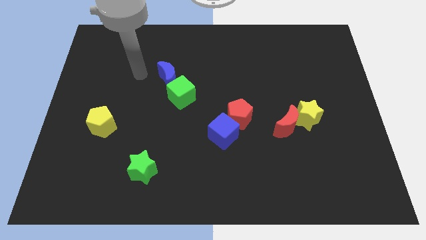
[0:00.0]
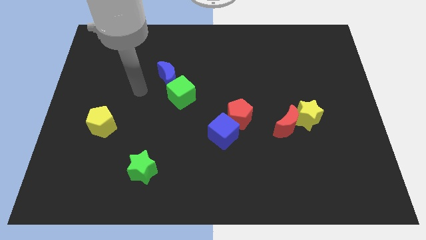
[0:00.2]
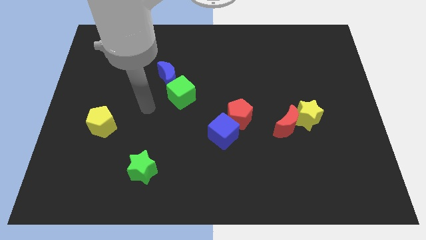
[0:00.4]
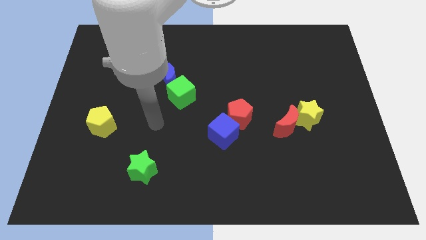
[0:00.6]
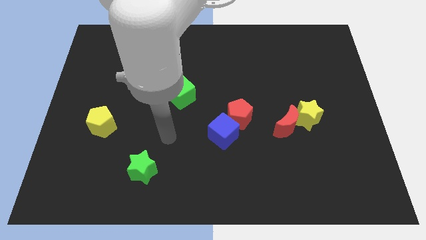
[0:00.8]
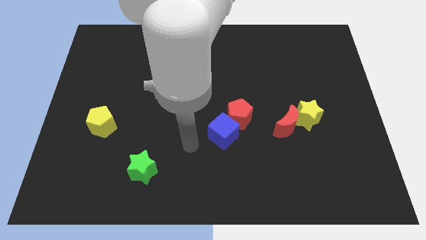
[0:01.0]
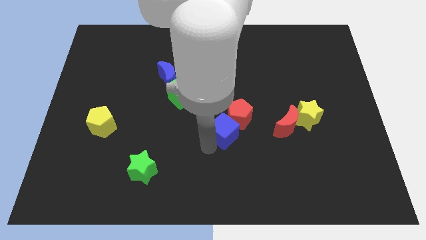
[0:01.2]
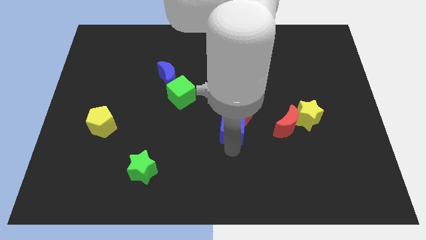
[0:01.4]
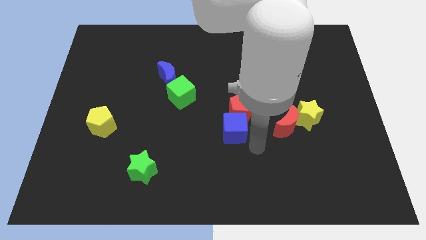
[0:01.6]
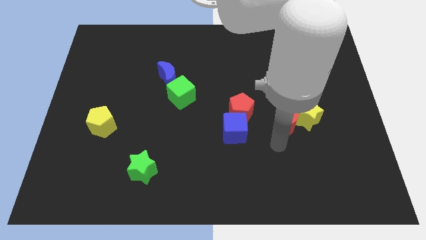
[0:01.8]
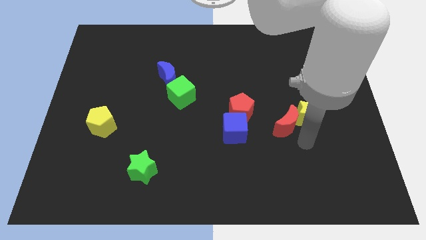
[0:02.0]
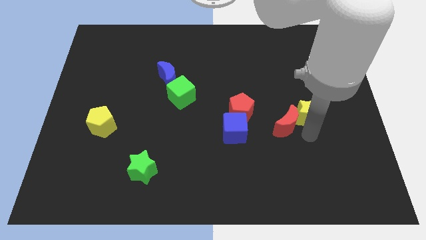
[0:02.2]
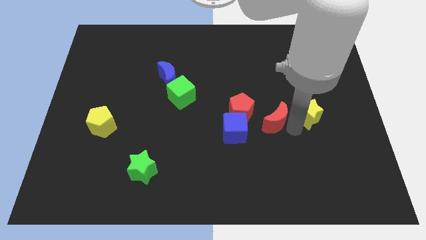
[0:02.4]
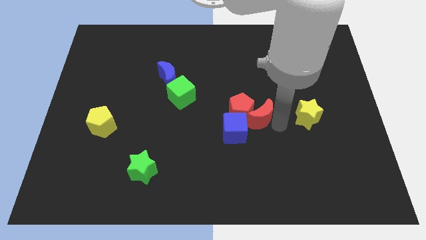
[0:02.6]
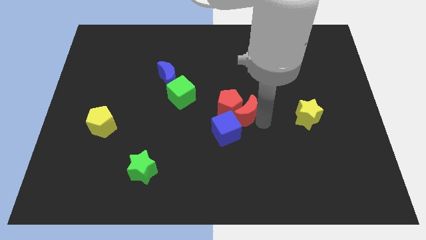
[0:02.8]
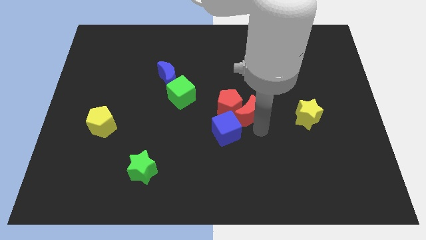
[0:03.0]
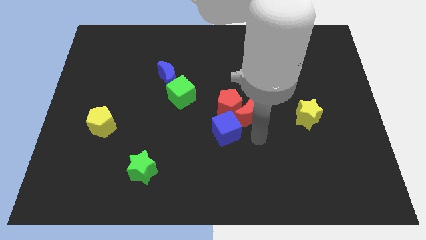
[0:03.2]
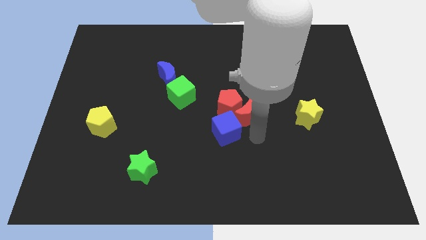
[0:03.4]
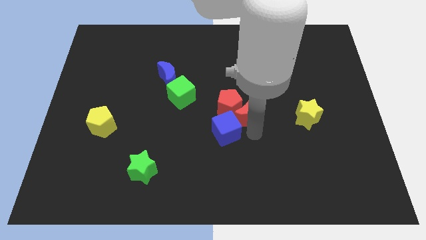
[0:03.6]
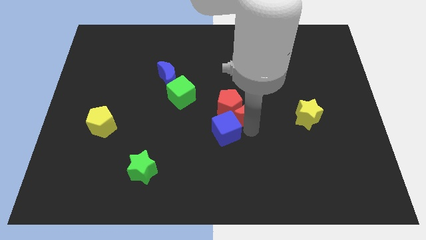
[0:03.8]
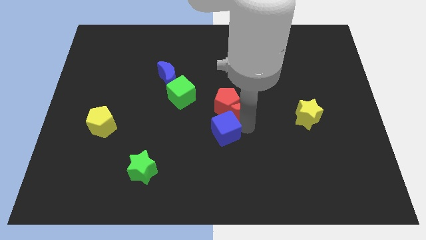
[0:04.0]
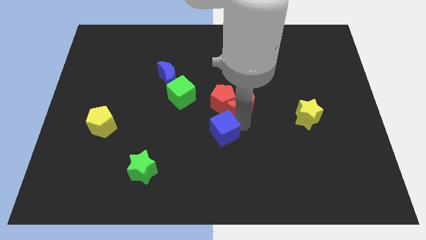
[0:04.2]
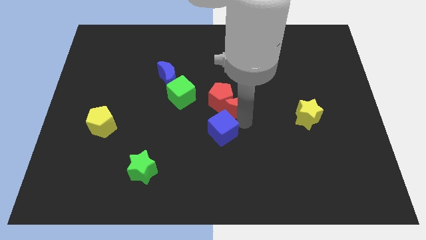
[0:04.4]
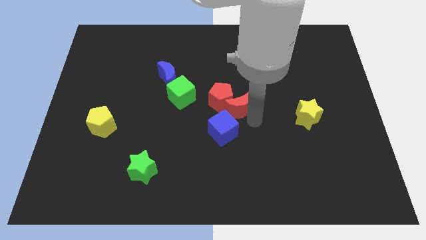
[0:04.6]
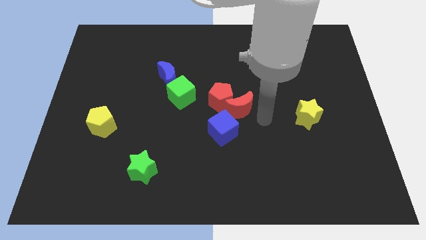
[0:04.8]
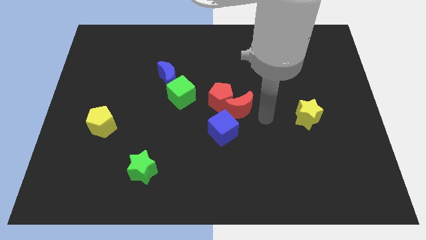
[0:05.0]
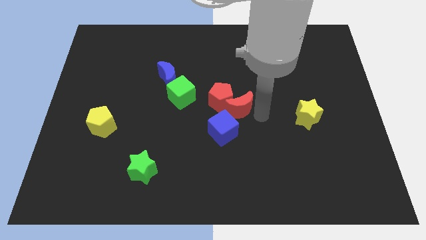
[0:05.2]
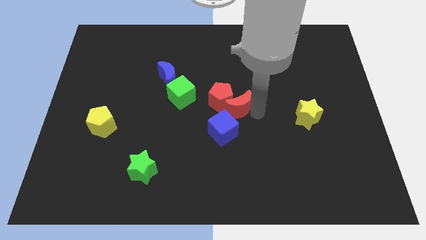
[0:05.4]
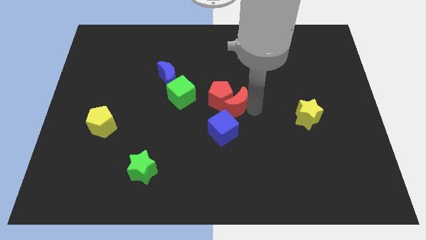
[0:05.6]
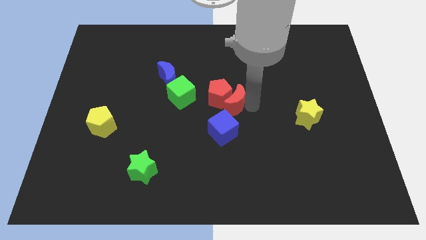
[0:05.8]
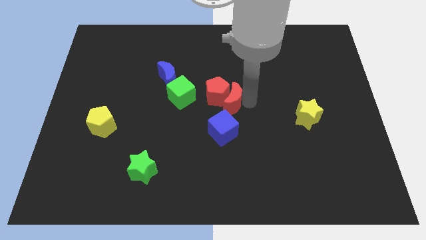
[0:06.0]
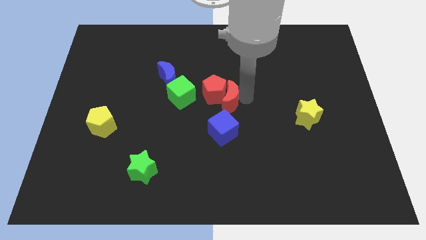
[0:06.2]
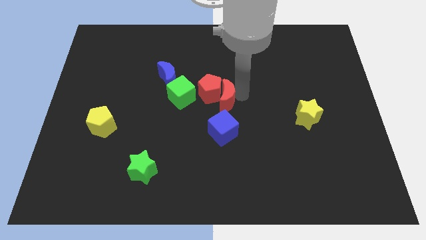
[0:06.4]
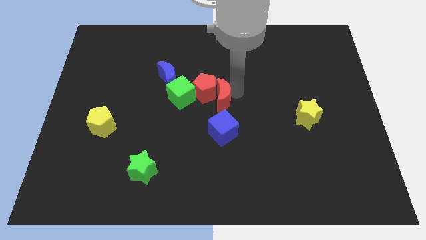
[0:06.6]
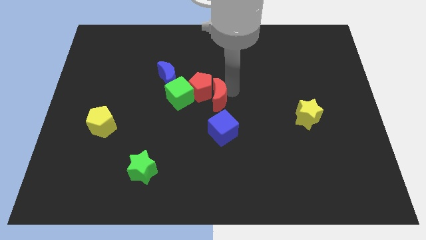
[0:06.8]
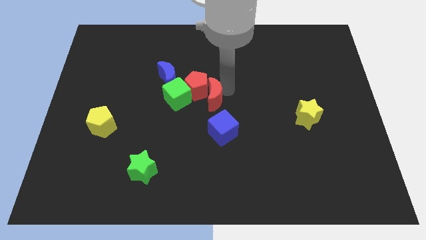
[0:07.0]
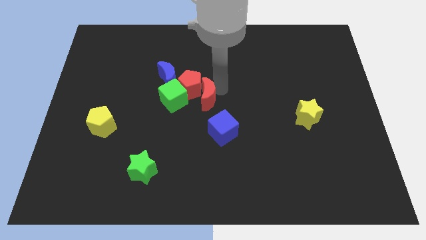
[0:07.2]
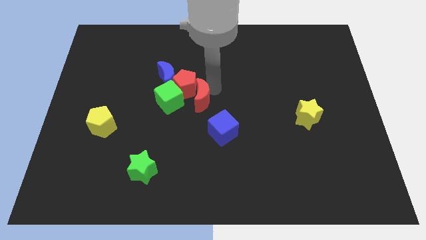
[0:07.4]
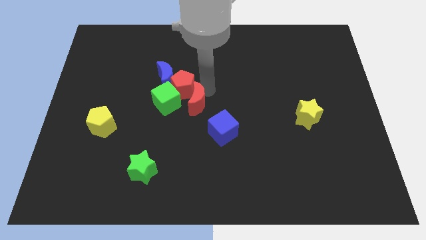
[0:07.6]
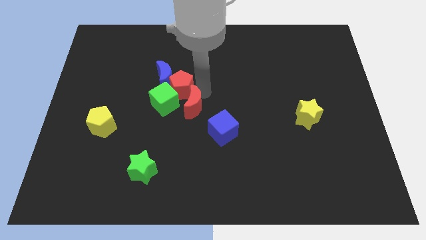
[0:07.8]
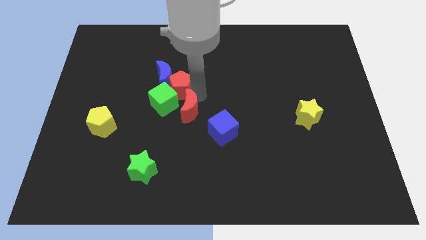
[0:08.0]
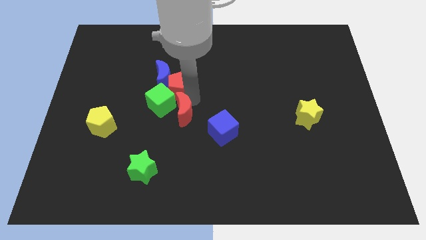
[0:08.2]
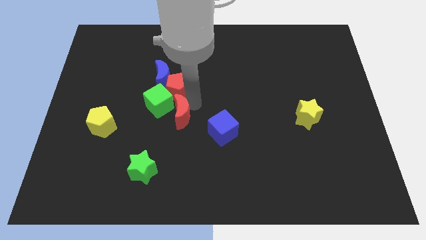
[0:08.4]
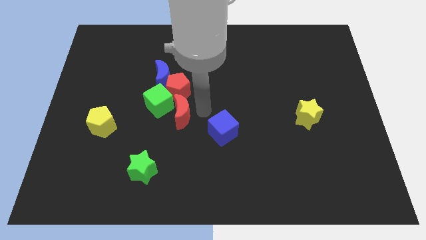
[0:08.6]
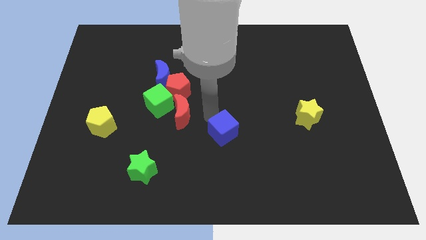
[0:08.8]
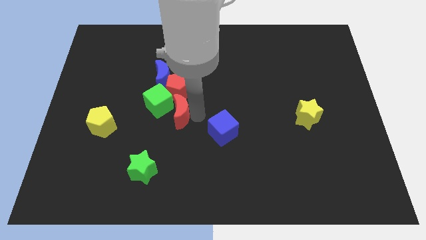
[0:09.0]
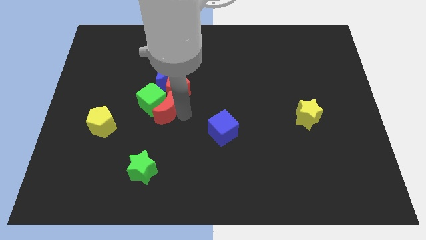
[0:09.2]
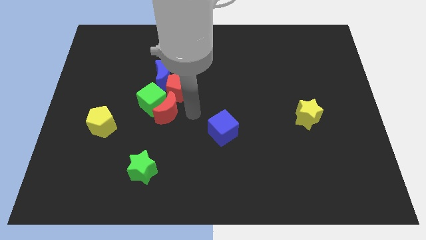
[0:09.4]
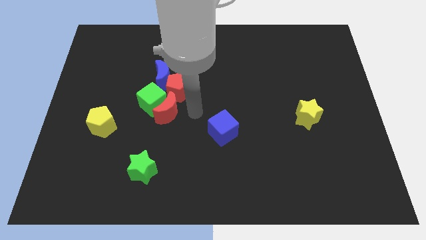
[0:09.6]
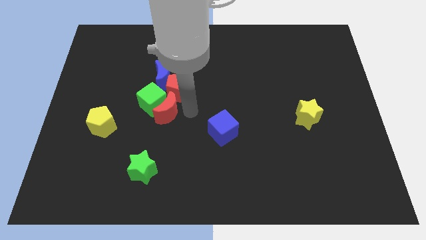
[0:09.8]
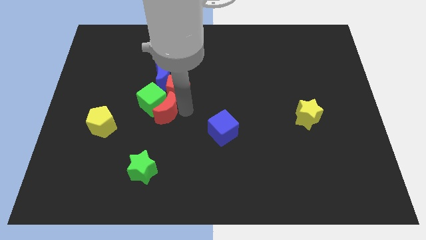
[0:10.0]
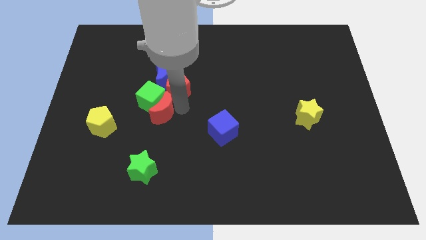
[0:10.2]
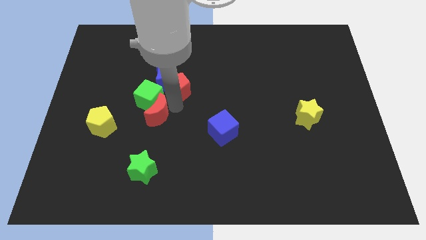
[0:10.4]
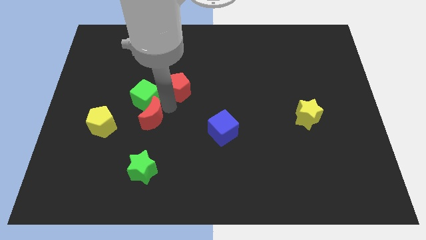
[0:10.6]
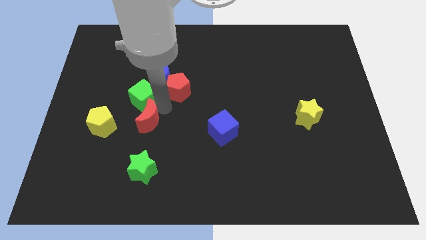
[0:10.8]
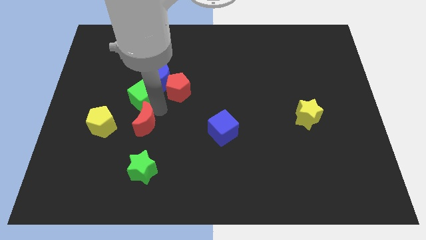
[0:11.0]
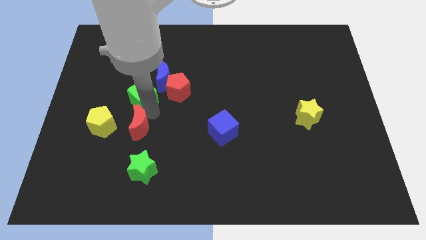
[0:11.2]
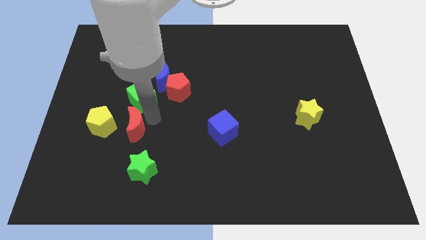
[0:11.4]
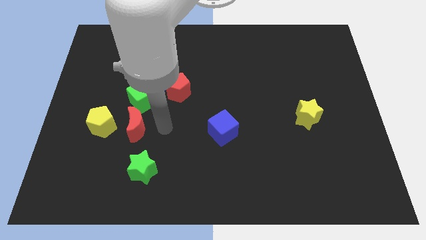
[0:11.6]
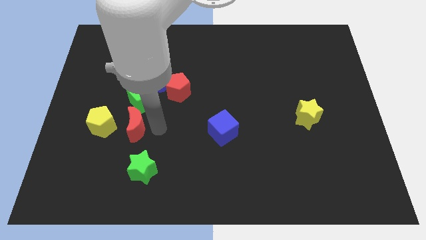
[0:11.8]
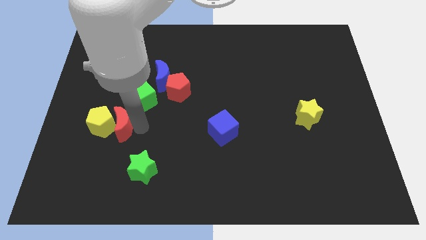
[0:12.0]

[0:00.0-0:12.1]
move the red moon next to the yellow pentagon

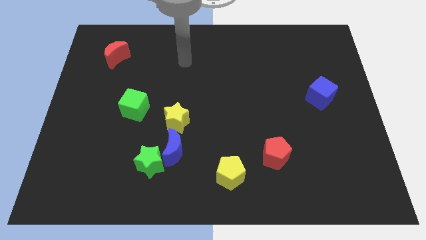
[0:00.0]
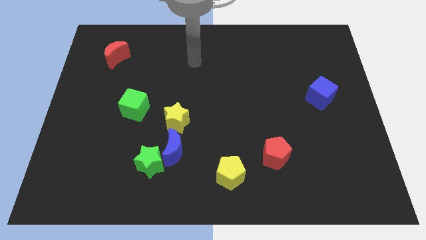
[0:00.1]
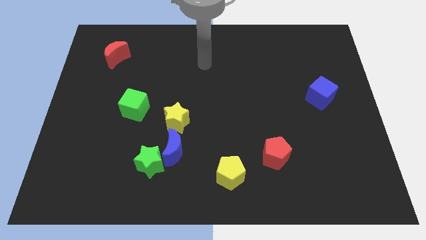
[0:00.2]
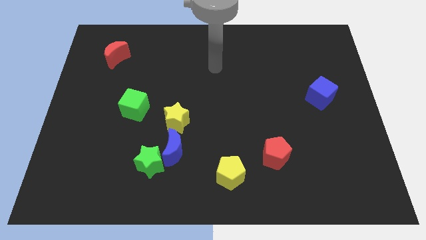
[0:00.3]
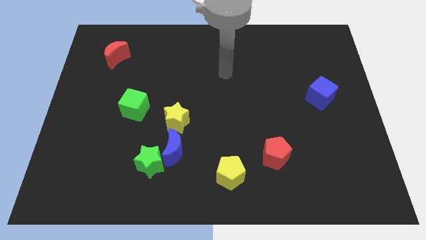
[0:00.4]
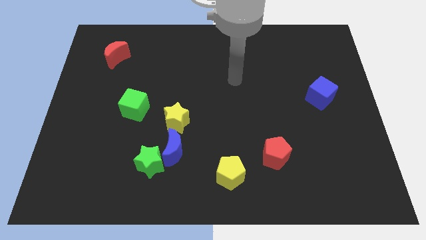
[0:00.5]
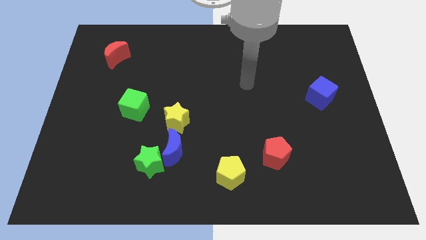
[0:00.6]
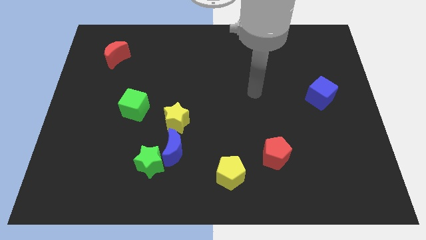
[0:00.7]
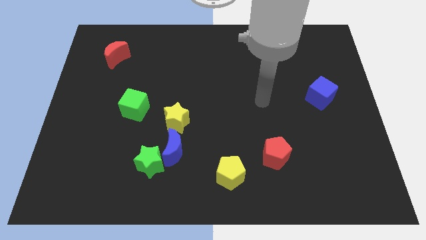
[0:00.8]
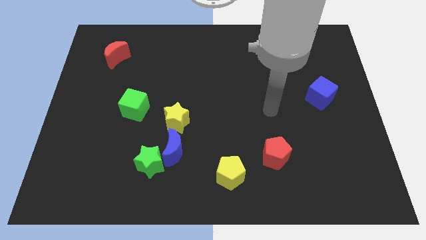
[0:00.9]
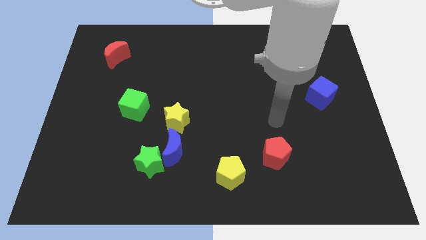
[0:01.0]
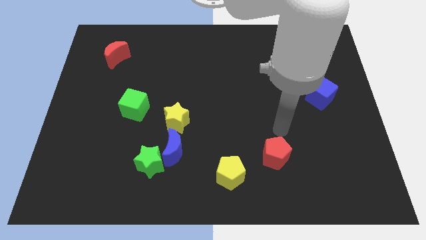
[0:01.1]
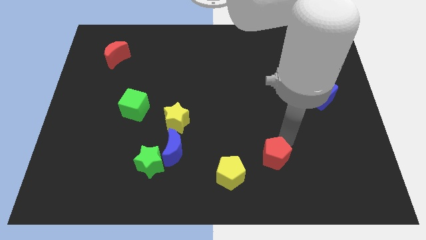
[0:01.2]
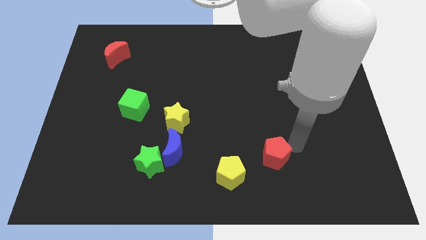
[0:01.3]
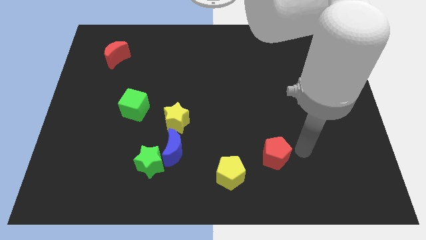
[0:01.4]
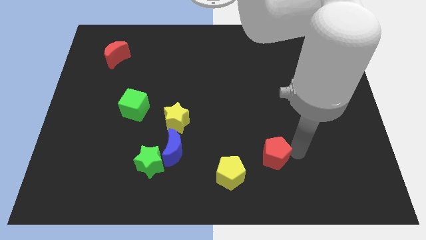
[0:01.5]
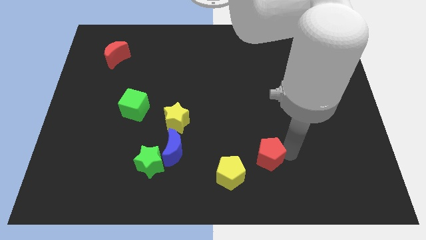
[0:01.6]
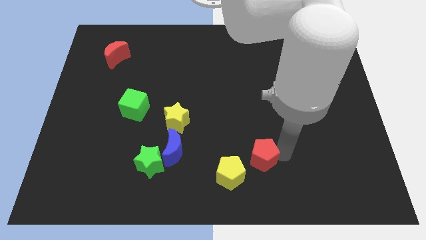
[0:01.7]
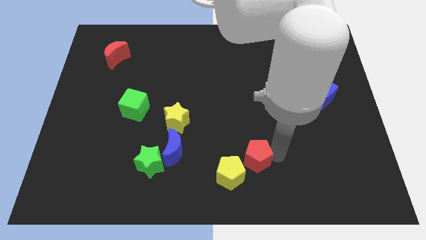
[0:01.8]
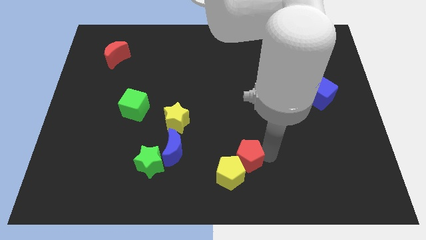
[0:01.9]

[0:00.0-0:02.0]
put the red pentagon to the yellow pentagon
